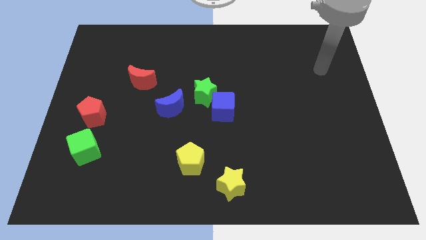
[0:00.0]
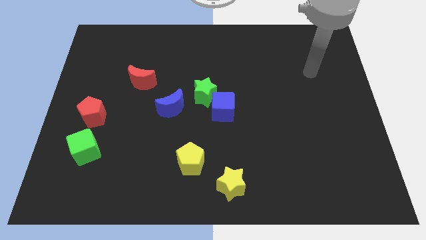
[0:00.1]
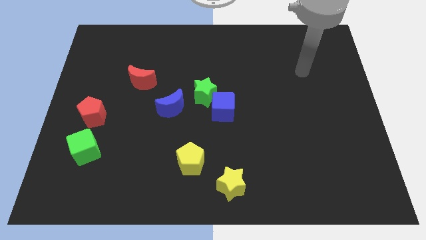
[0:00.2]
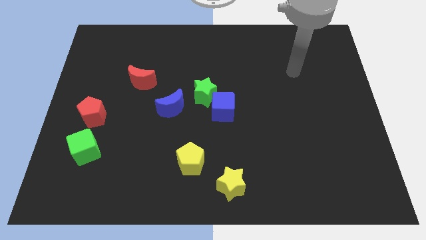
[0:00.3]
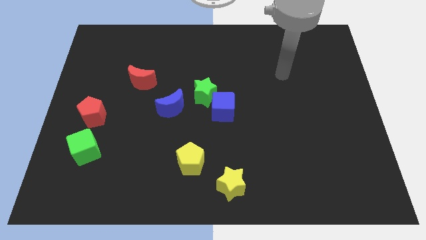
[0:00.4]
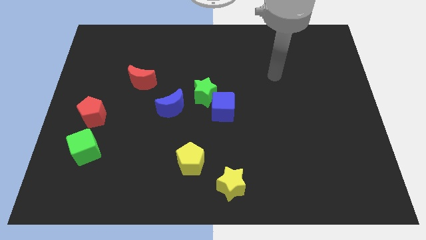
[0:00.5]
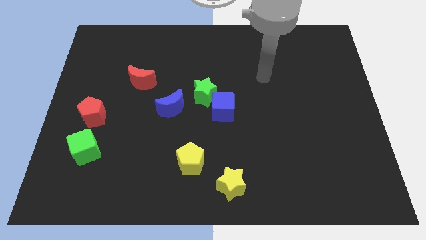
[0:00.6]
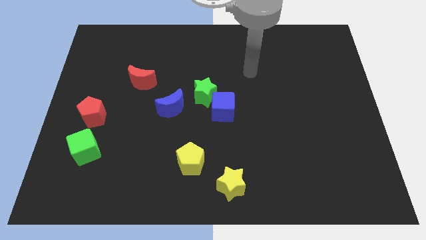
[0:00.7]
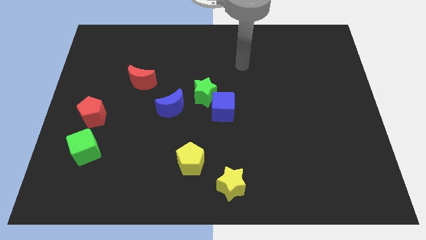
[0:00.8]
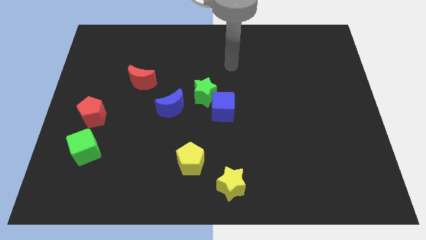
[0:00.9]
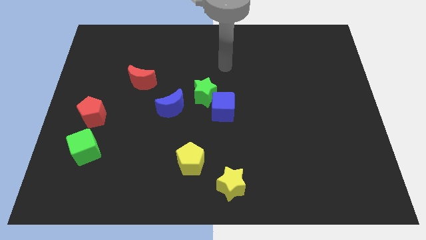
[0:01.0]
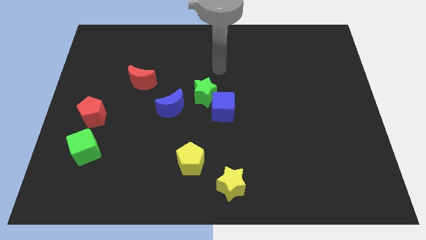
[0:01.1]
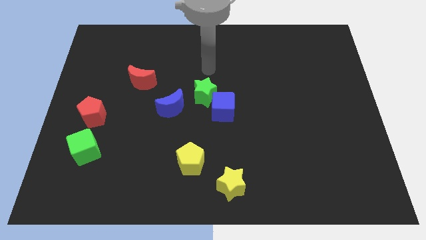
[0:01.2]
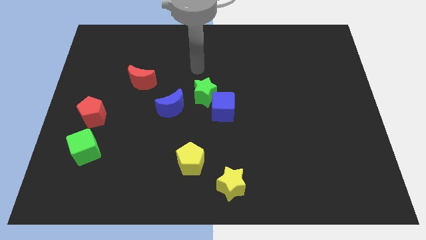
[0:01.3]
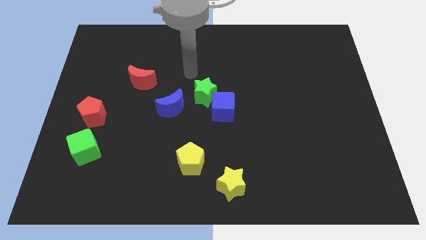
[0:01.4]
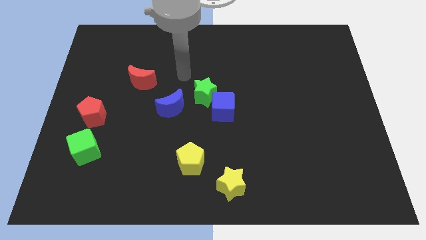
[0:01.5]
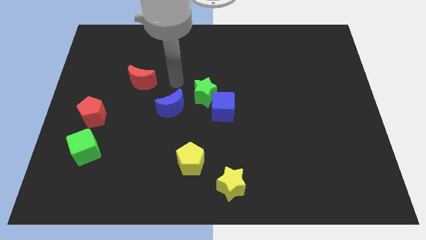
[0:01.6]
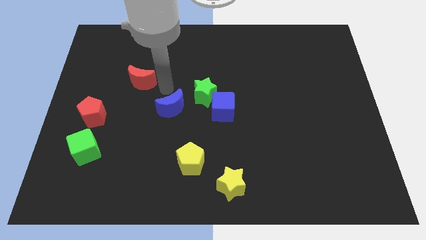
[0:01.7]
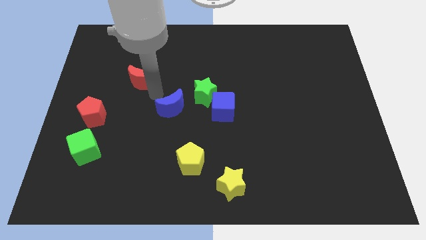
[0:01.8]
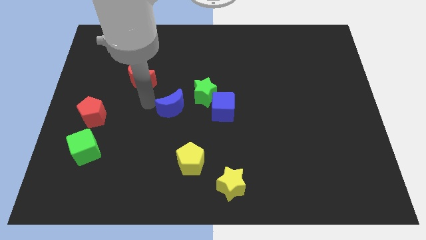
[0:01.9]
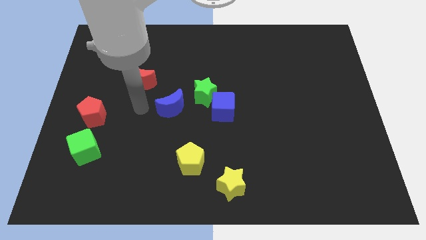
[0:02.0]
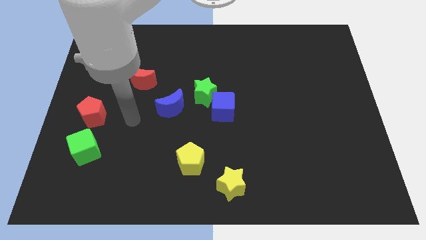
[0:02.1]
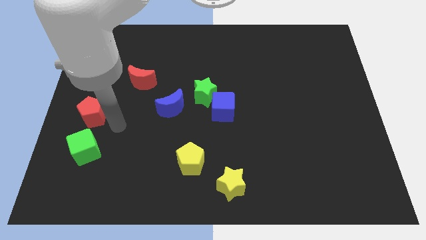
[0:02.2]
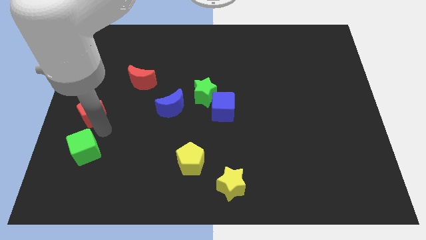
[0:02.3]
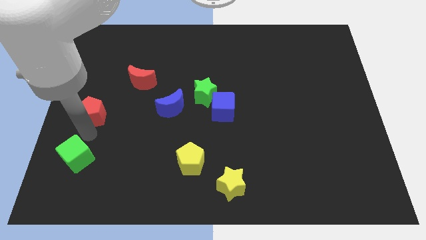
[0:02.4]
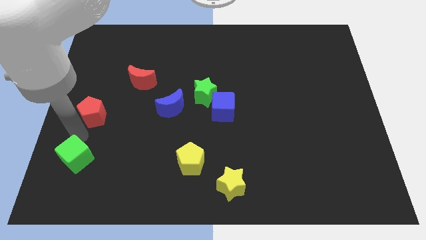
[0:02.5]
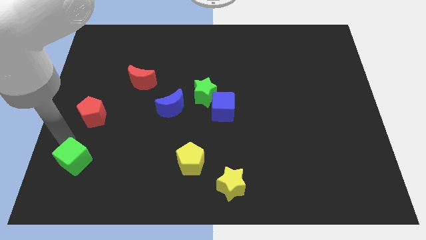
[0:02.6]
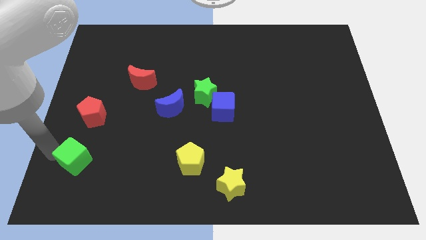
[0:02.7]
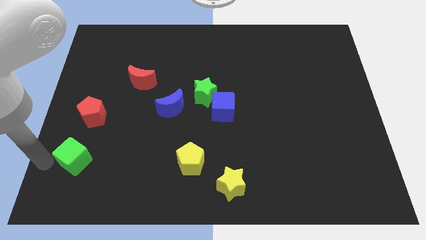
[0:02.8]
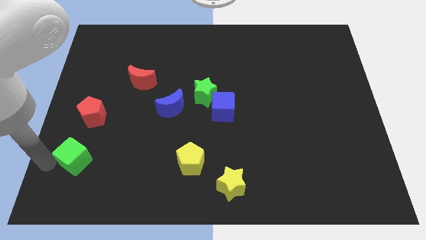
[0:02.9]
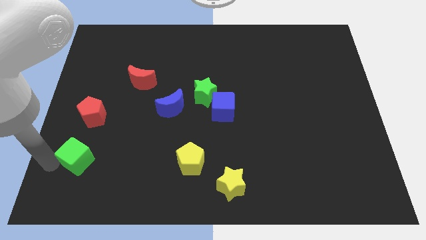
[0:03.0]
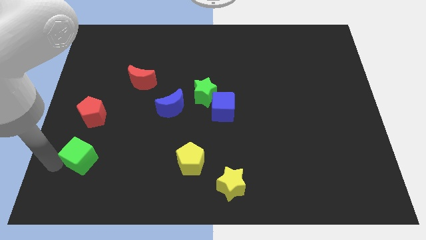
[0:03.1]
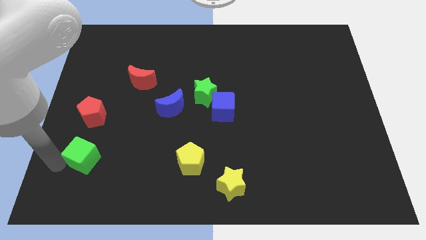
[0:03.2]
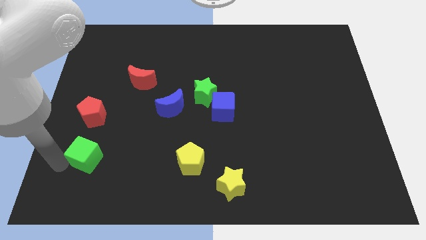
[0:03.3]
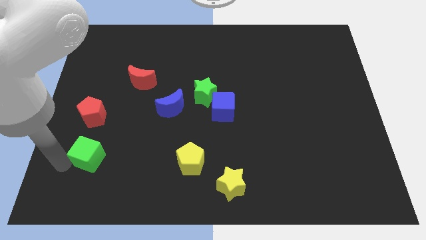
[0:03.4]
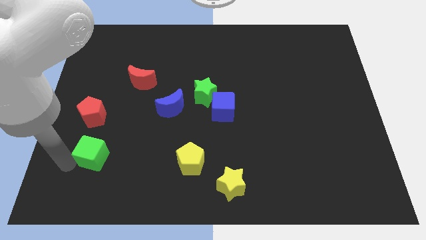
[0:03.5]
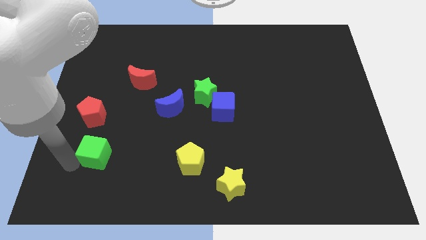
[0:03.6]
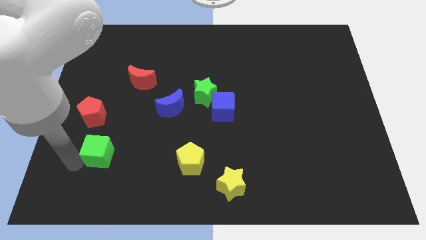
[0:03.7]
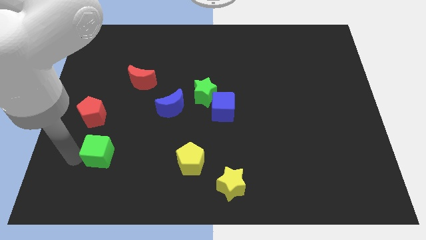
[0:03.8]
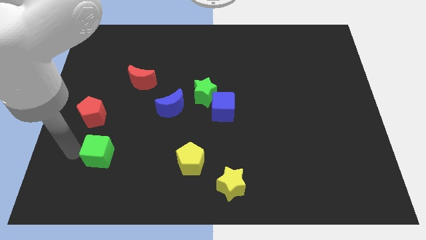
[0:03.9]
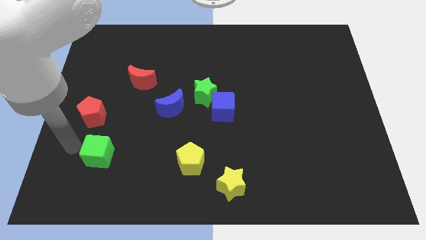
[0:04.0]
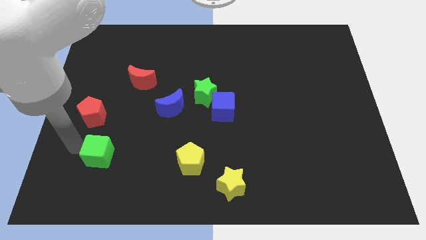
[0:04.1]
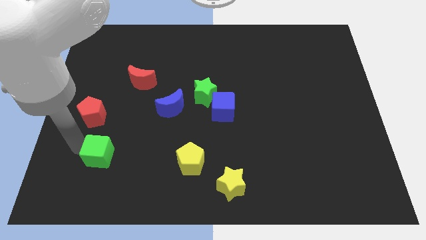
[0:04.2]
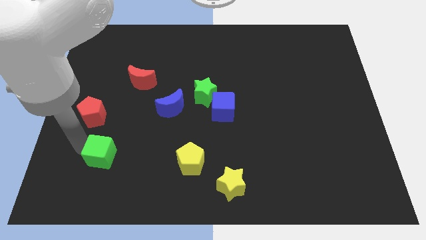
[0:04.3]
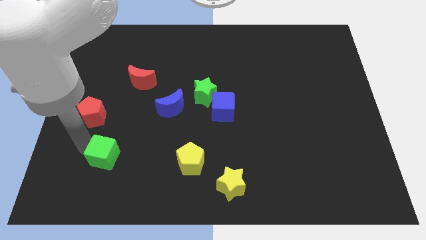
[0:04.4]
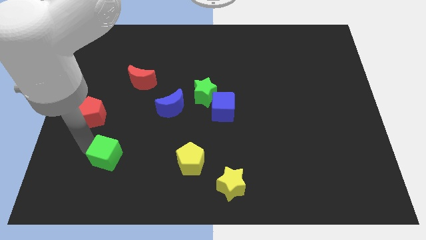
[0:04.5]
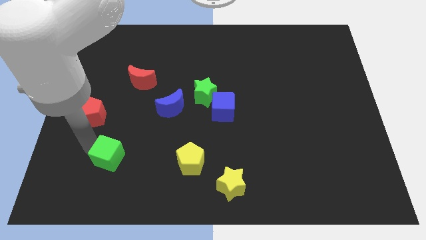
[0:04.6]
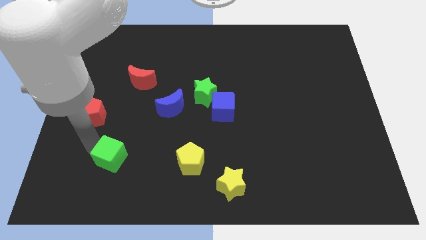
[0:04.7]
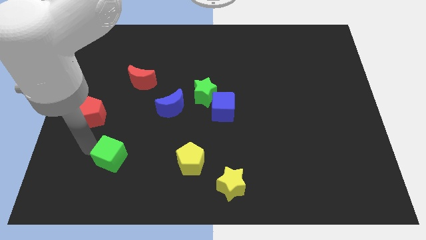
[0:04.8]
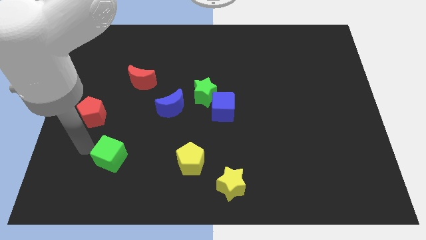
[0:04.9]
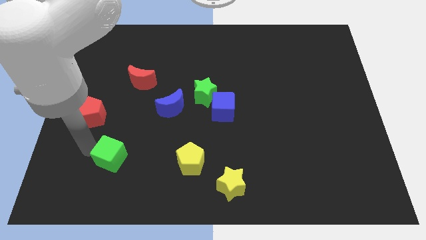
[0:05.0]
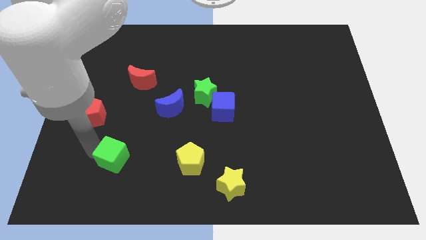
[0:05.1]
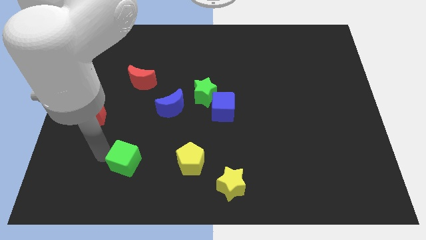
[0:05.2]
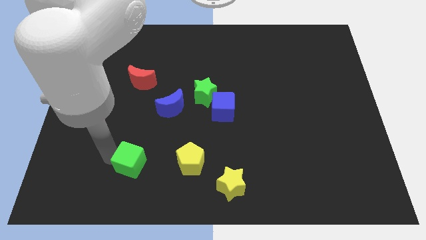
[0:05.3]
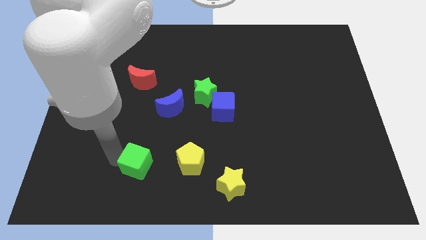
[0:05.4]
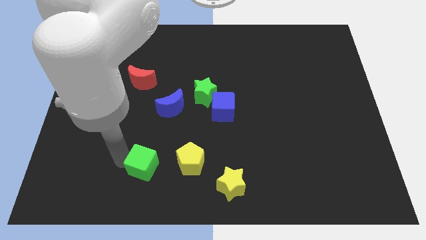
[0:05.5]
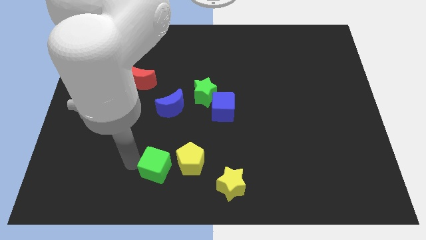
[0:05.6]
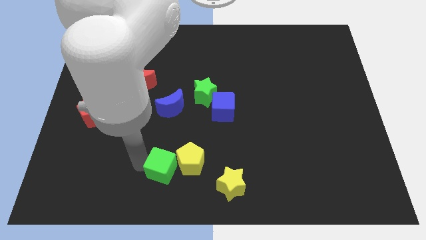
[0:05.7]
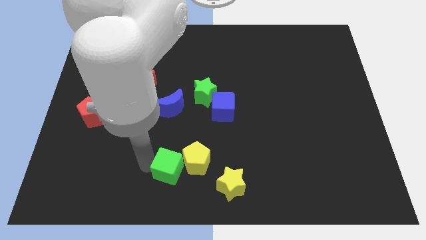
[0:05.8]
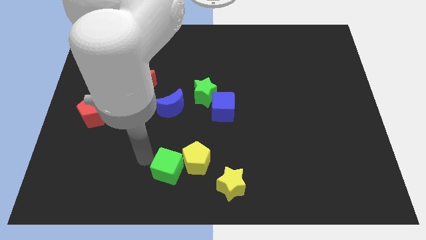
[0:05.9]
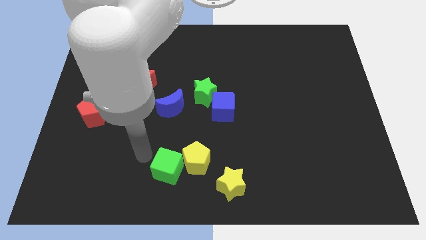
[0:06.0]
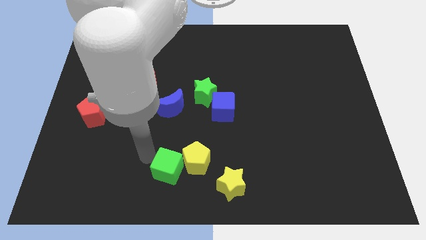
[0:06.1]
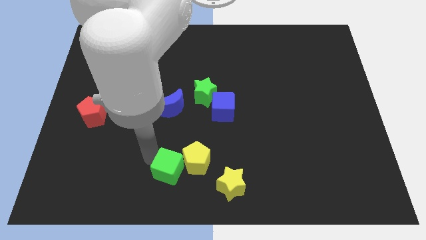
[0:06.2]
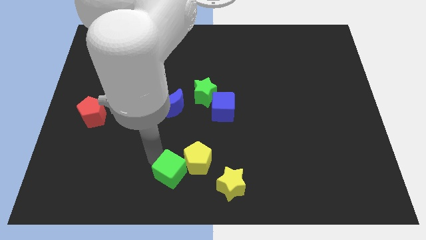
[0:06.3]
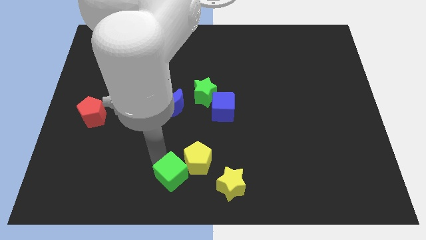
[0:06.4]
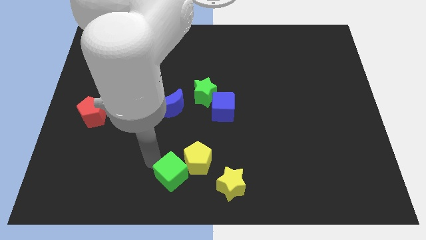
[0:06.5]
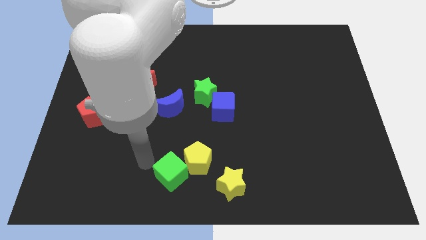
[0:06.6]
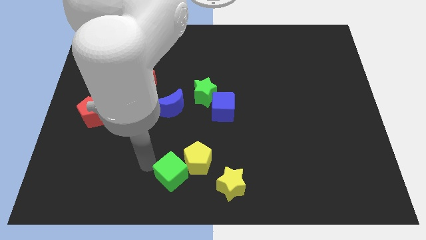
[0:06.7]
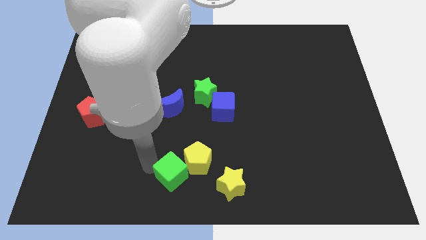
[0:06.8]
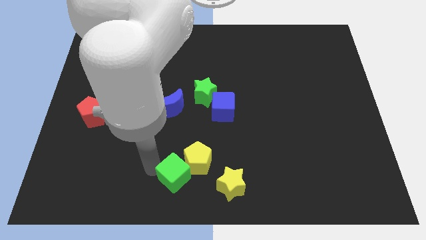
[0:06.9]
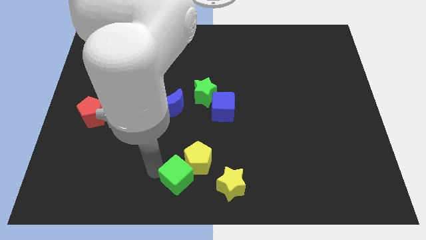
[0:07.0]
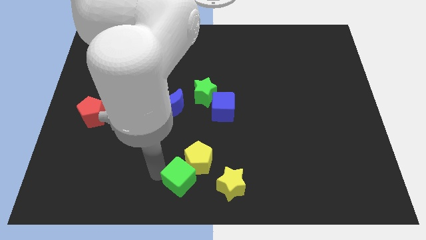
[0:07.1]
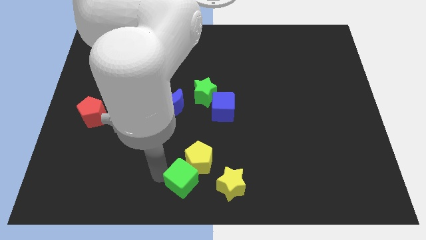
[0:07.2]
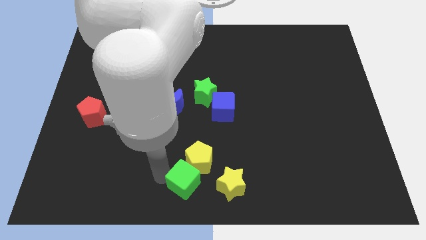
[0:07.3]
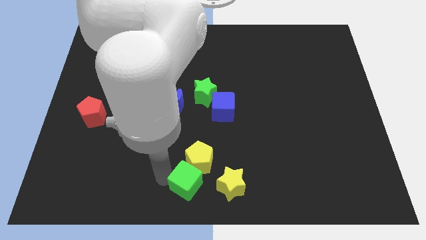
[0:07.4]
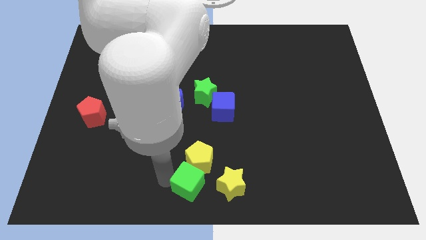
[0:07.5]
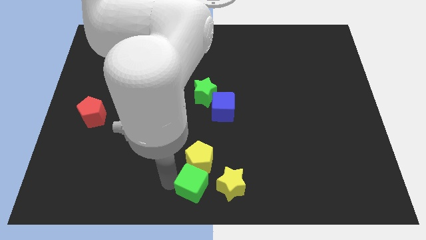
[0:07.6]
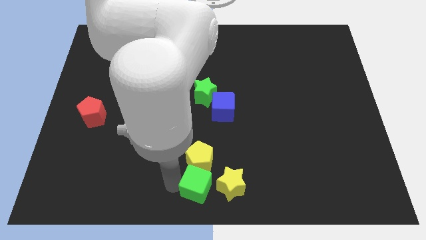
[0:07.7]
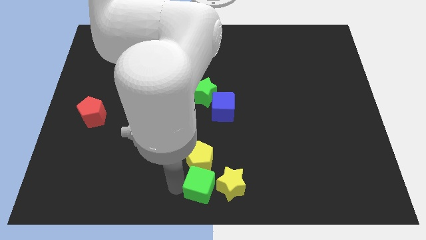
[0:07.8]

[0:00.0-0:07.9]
slide the green cube towards the yellow star
